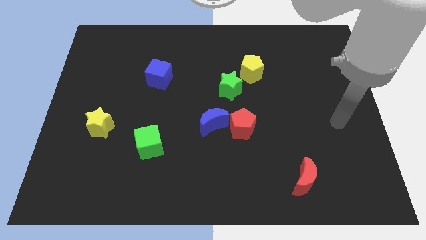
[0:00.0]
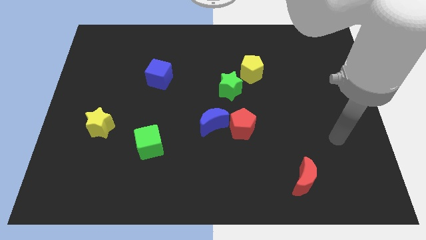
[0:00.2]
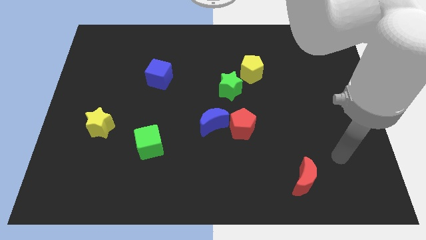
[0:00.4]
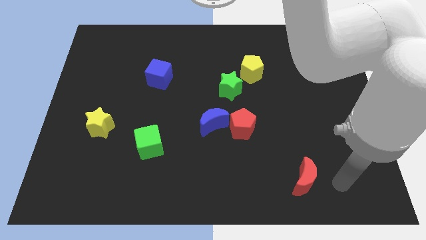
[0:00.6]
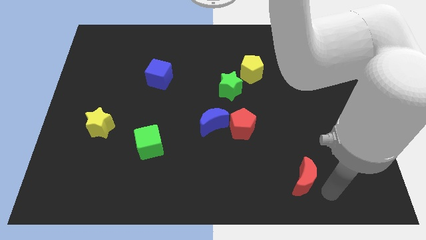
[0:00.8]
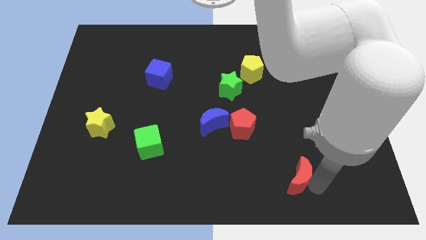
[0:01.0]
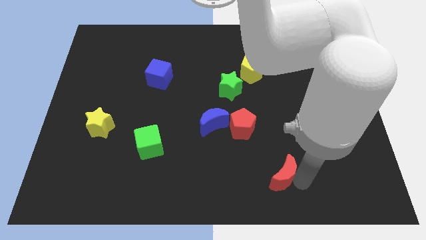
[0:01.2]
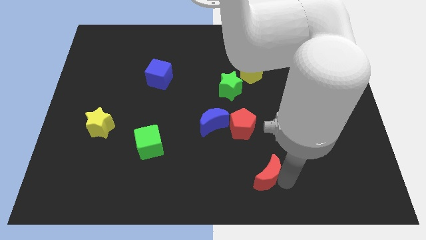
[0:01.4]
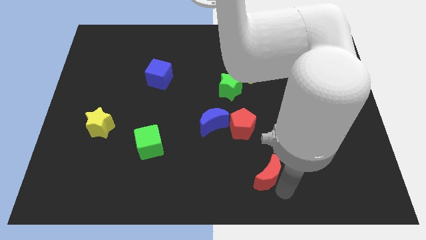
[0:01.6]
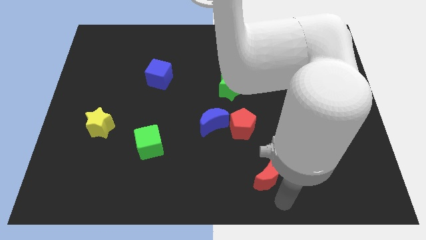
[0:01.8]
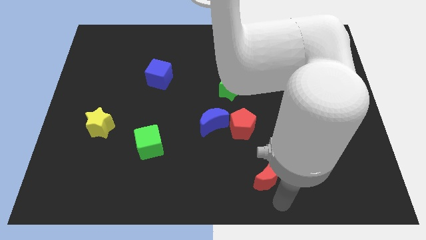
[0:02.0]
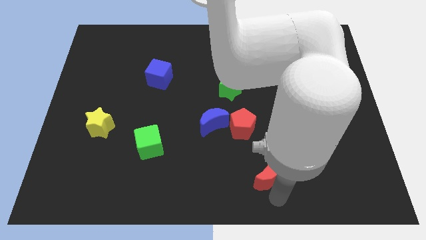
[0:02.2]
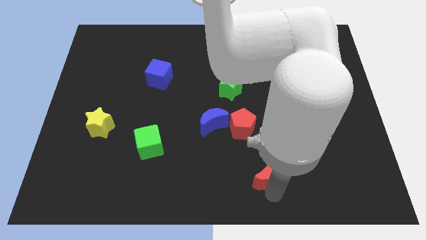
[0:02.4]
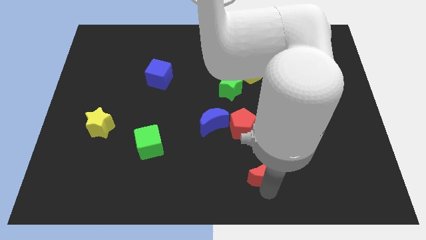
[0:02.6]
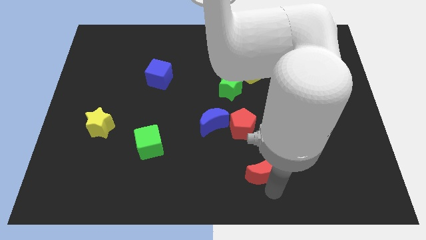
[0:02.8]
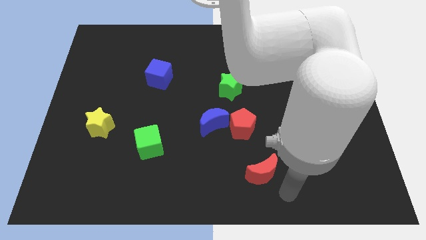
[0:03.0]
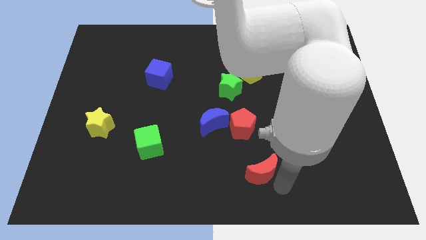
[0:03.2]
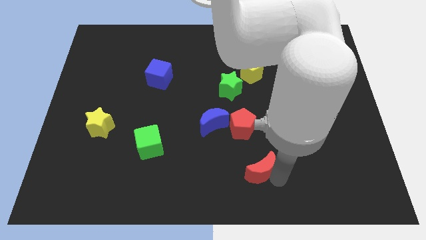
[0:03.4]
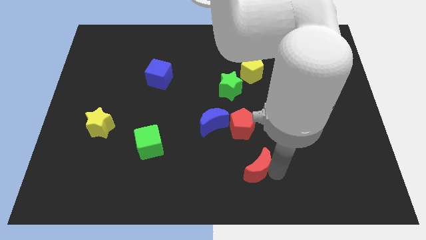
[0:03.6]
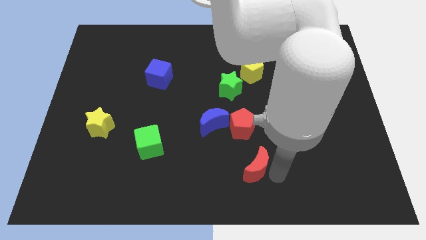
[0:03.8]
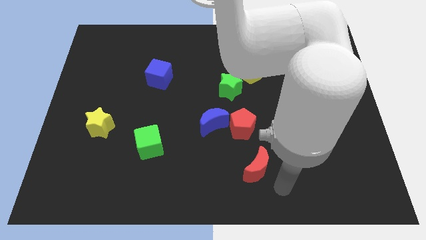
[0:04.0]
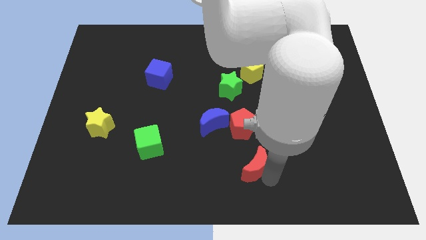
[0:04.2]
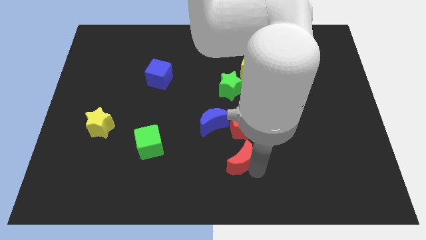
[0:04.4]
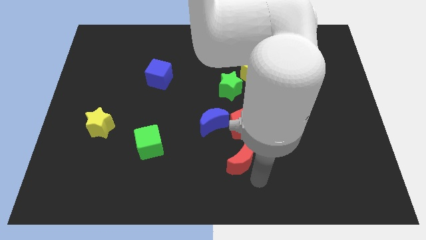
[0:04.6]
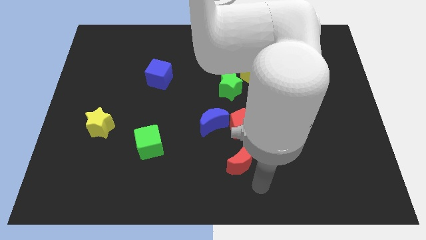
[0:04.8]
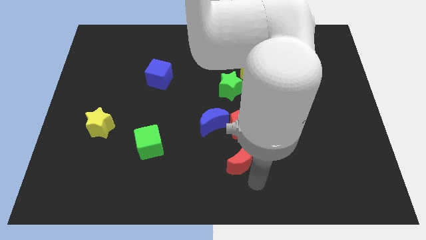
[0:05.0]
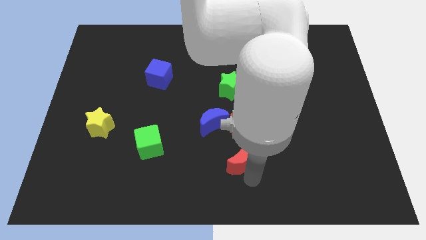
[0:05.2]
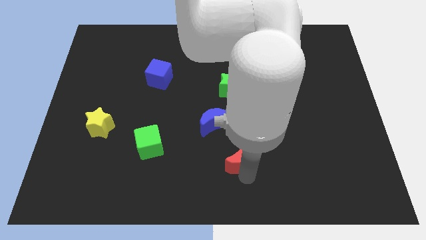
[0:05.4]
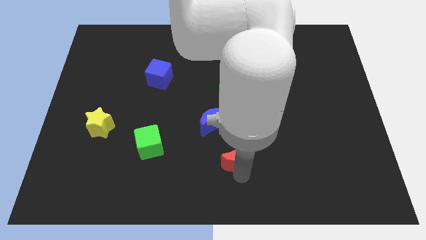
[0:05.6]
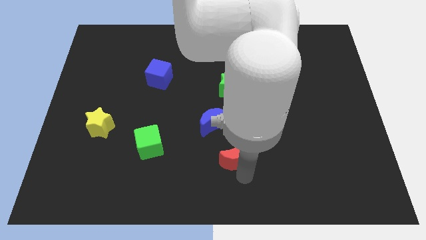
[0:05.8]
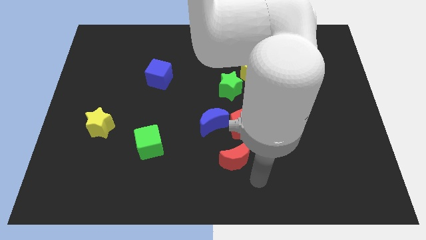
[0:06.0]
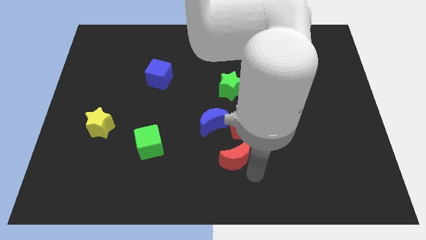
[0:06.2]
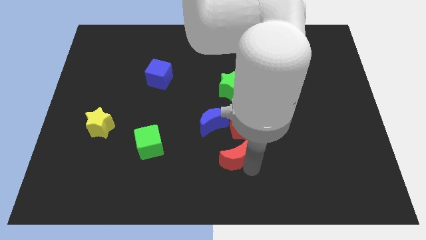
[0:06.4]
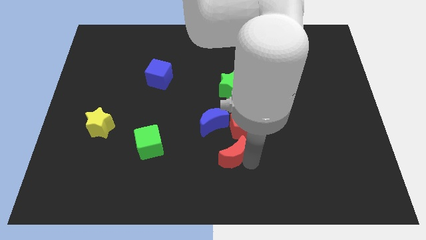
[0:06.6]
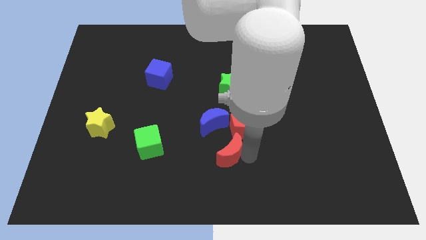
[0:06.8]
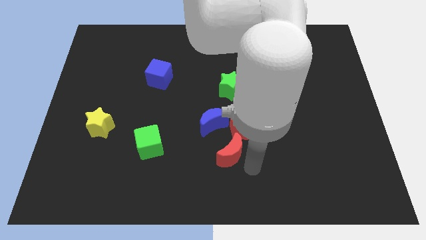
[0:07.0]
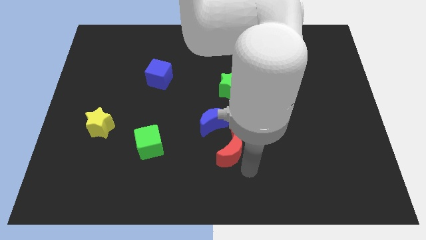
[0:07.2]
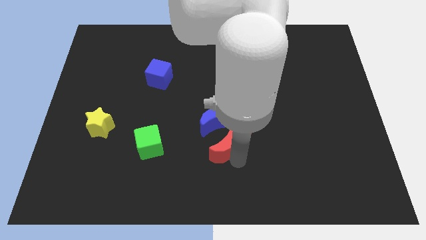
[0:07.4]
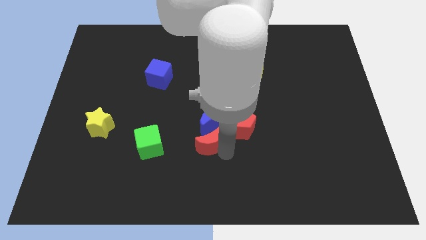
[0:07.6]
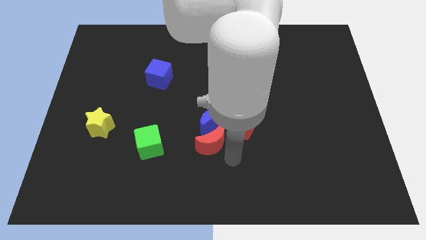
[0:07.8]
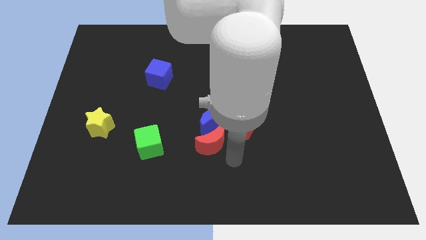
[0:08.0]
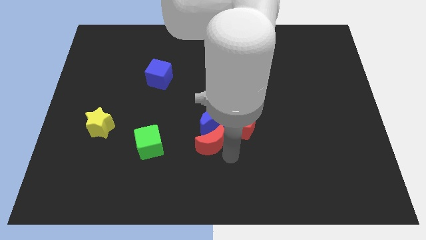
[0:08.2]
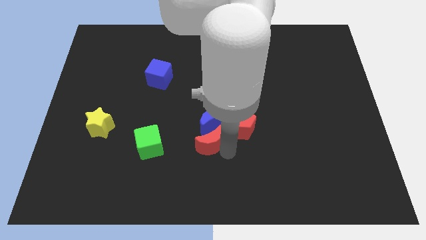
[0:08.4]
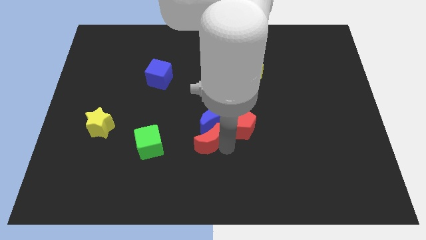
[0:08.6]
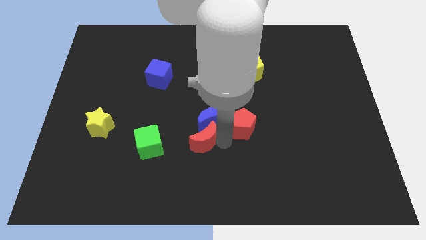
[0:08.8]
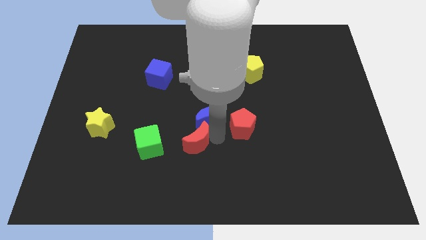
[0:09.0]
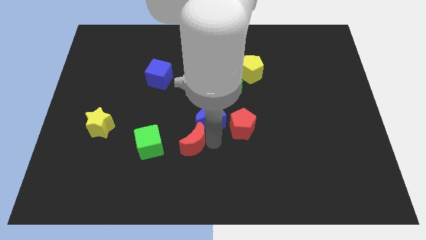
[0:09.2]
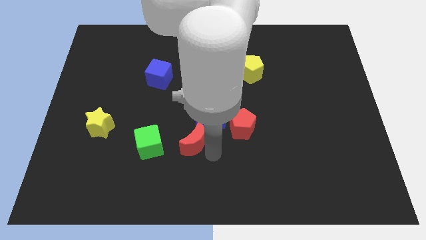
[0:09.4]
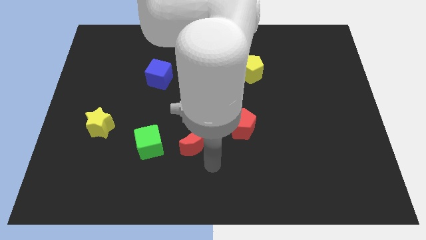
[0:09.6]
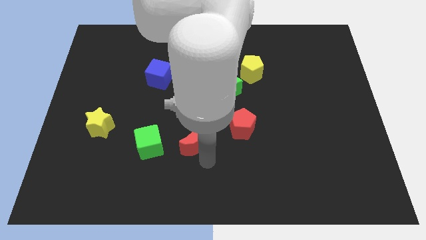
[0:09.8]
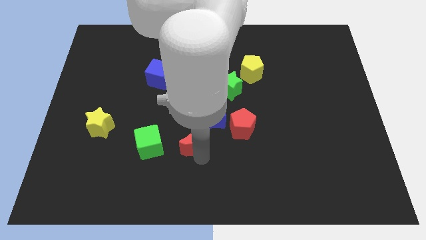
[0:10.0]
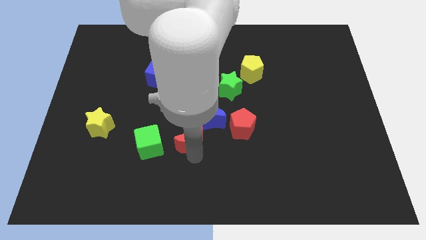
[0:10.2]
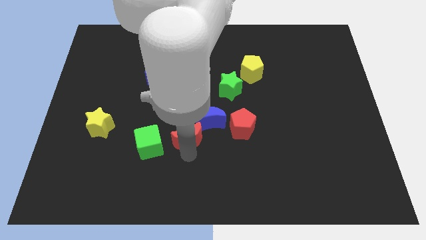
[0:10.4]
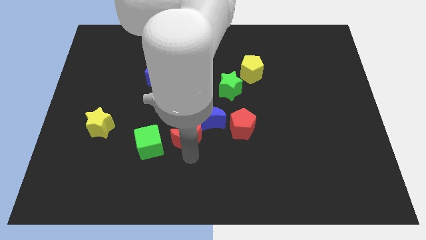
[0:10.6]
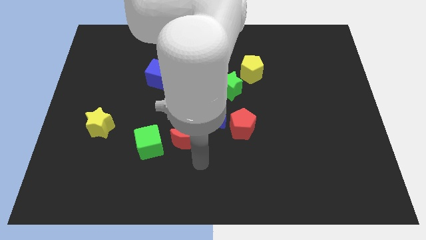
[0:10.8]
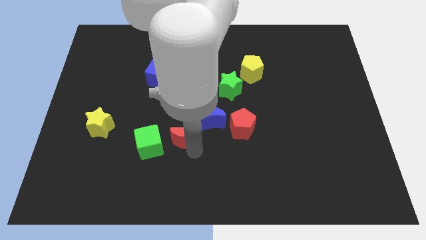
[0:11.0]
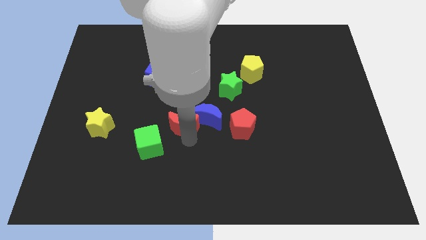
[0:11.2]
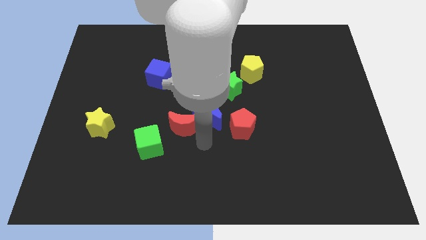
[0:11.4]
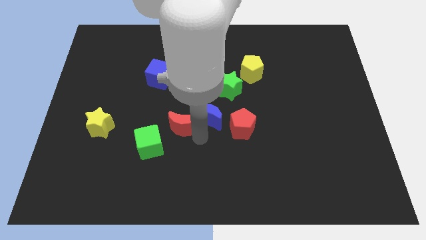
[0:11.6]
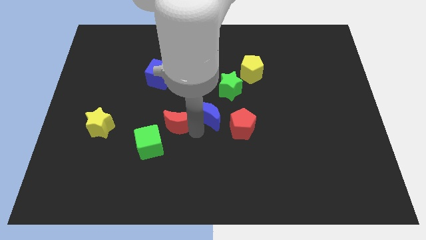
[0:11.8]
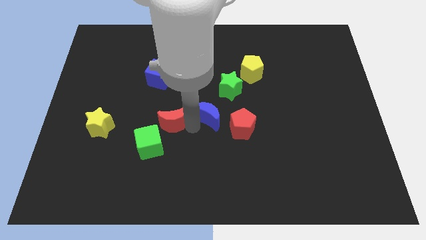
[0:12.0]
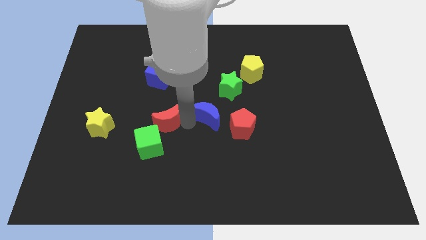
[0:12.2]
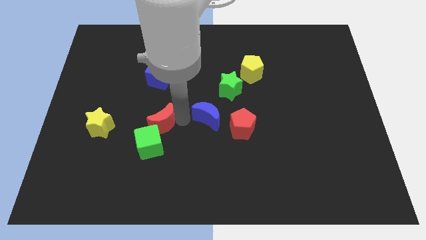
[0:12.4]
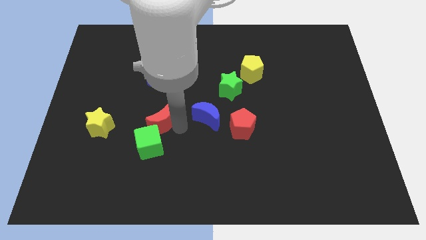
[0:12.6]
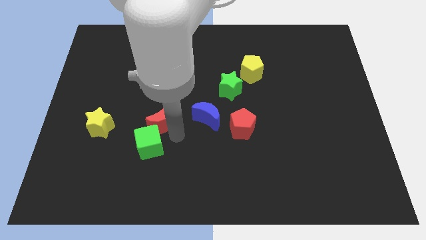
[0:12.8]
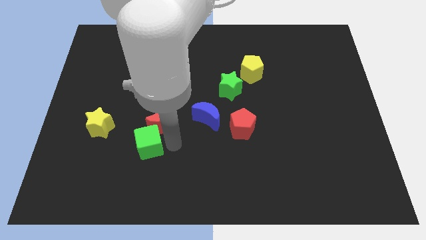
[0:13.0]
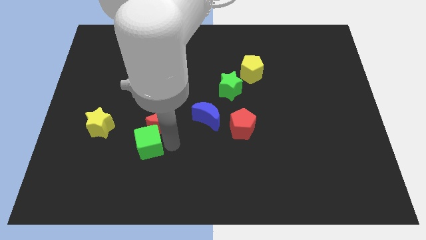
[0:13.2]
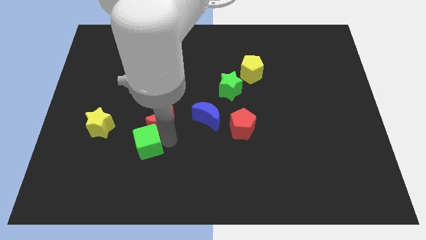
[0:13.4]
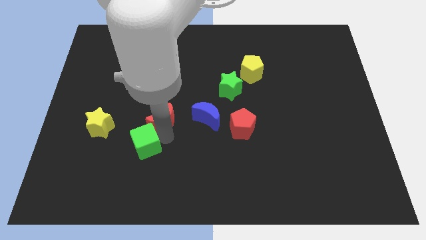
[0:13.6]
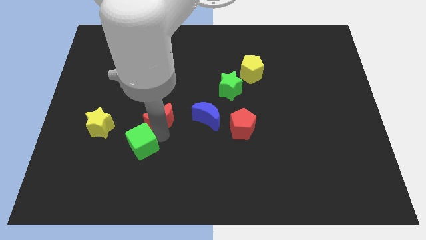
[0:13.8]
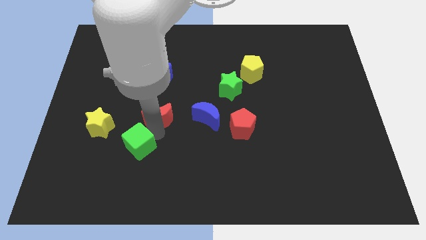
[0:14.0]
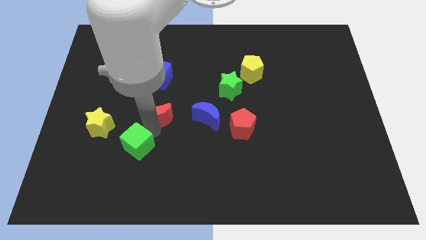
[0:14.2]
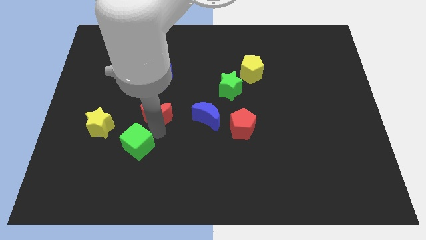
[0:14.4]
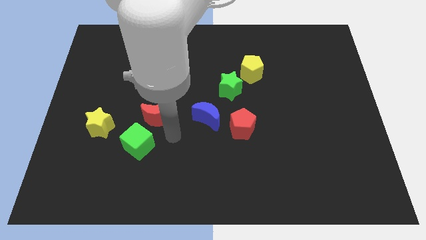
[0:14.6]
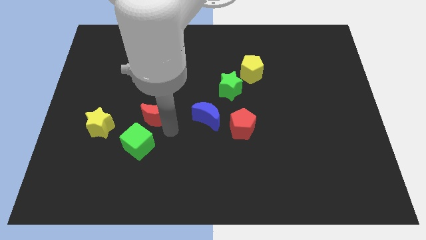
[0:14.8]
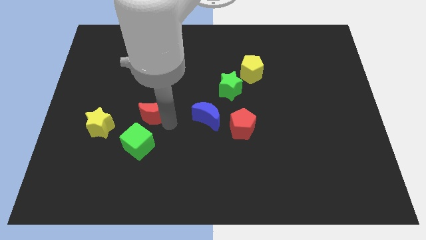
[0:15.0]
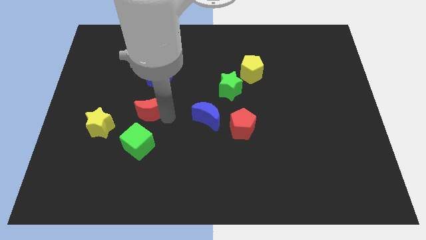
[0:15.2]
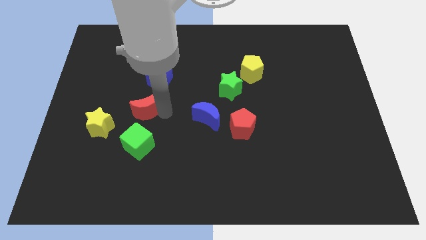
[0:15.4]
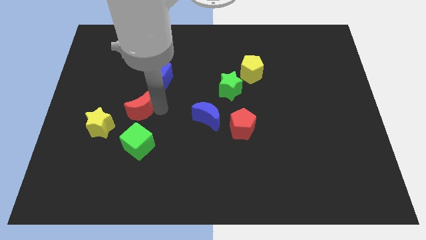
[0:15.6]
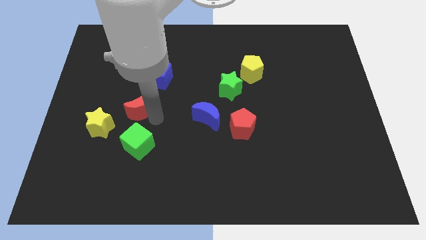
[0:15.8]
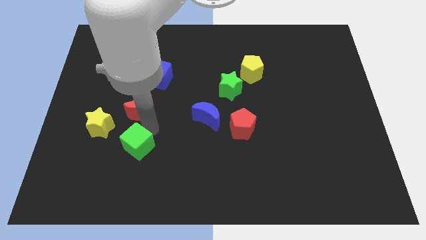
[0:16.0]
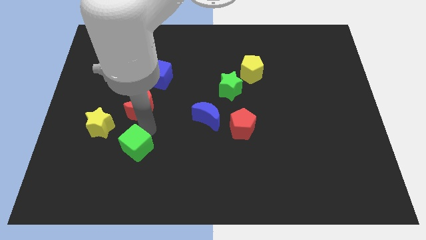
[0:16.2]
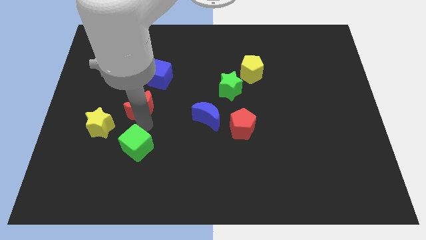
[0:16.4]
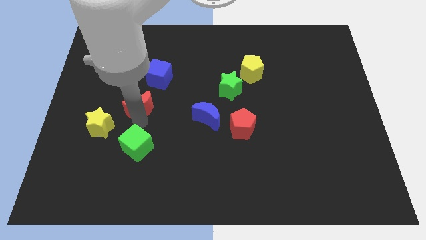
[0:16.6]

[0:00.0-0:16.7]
move the red moon to the bottom left side of the blue cube
